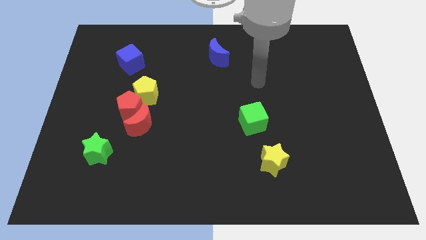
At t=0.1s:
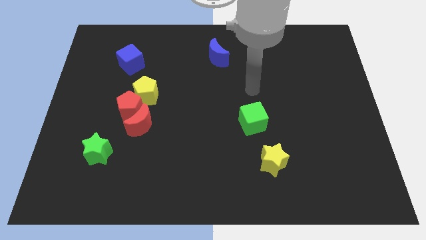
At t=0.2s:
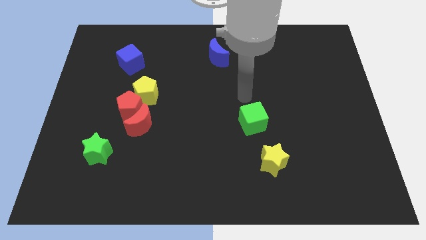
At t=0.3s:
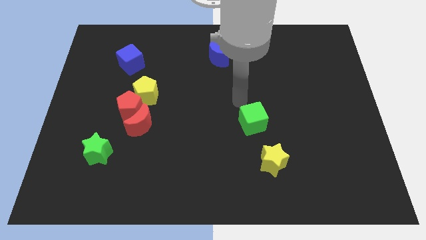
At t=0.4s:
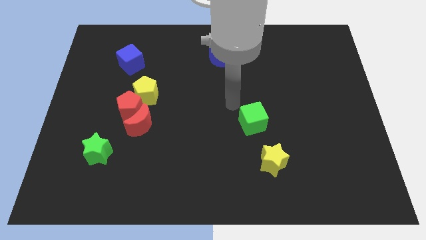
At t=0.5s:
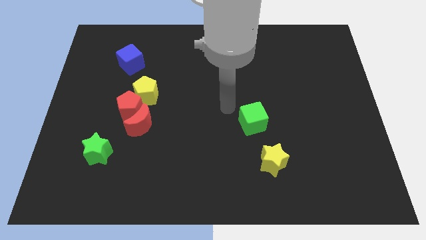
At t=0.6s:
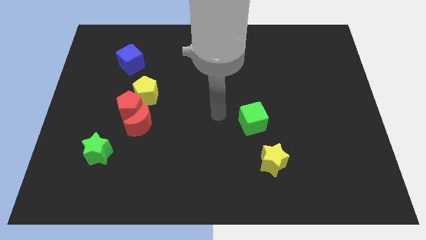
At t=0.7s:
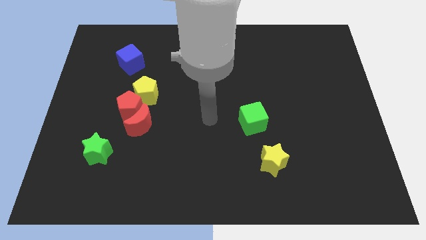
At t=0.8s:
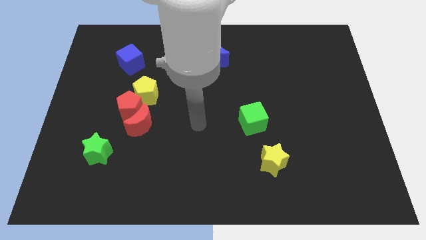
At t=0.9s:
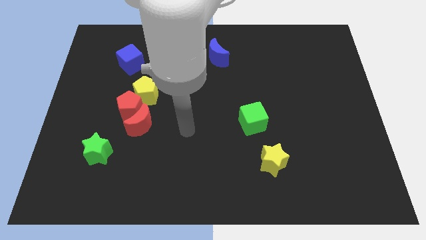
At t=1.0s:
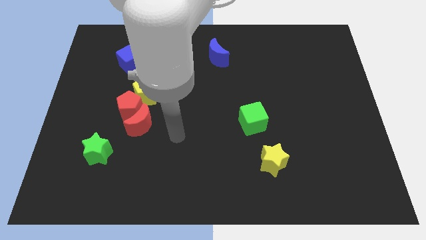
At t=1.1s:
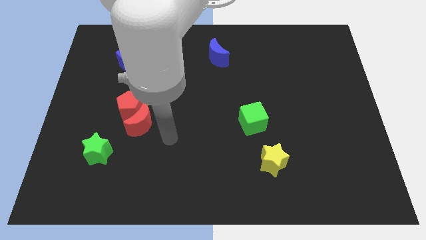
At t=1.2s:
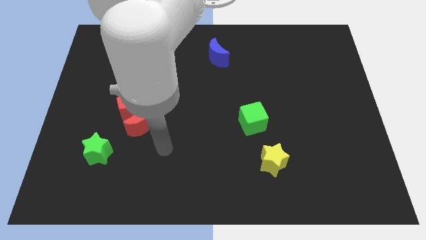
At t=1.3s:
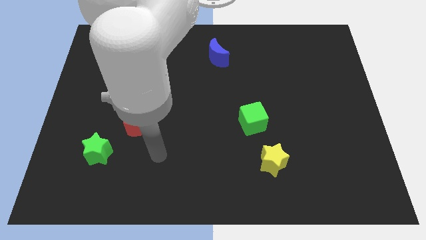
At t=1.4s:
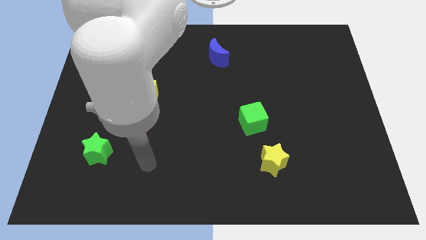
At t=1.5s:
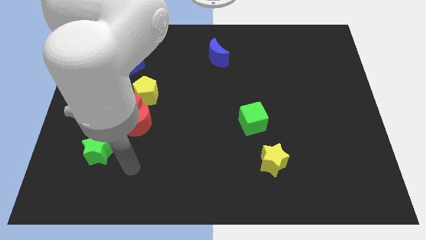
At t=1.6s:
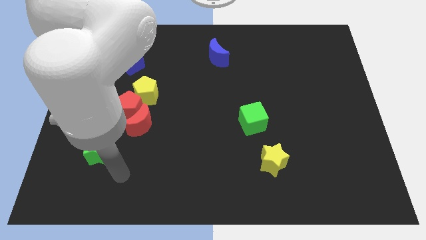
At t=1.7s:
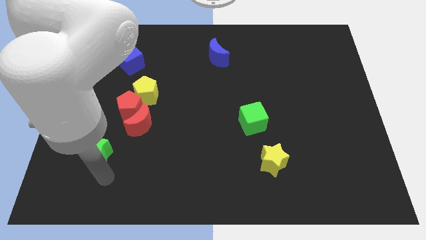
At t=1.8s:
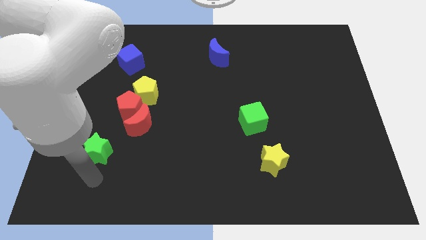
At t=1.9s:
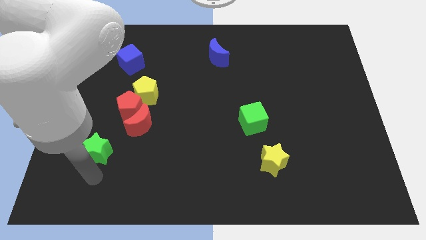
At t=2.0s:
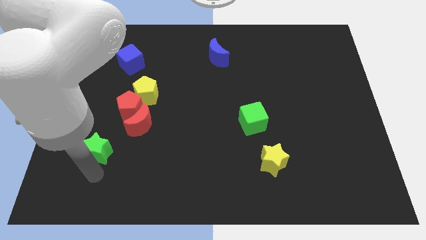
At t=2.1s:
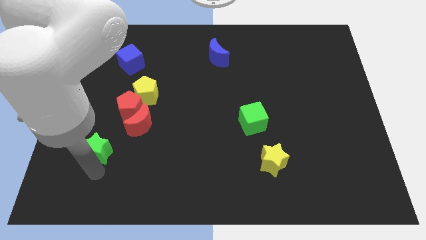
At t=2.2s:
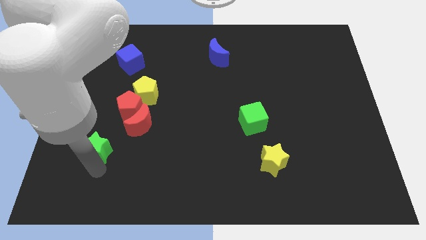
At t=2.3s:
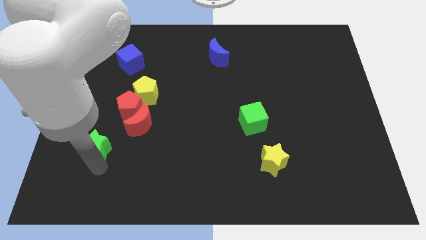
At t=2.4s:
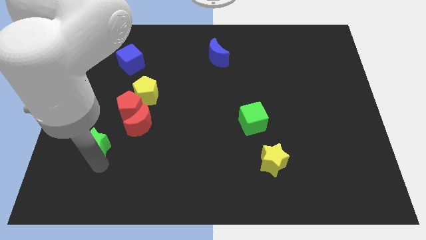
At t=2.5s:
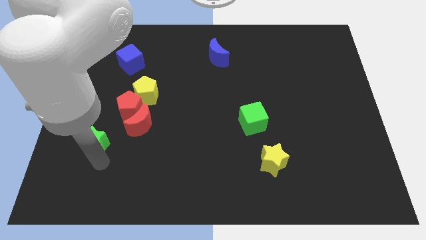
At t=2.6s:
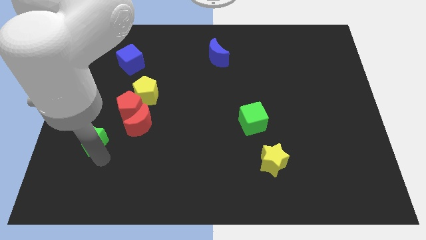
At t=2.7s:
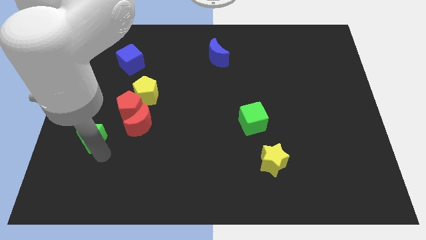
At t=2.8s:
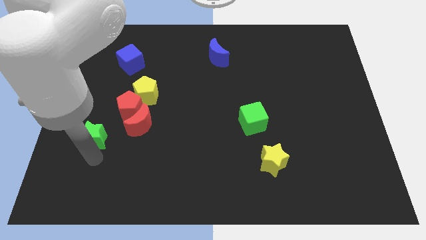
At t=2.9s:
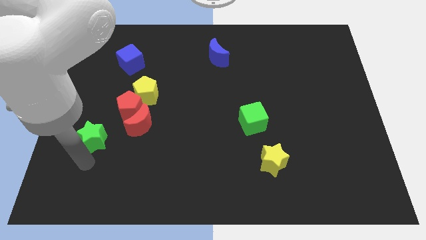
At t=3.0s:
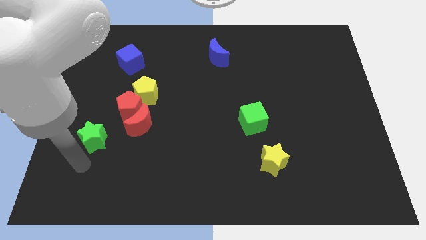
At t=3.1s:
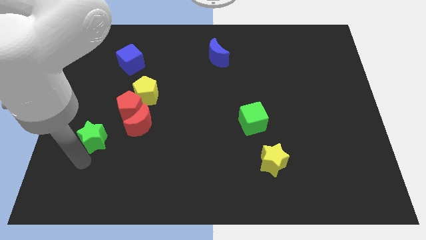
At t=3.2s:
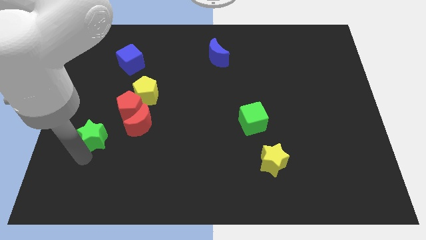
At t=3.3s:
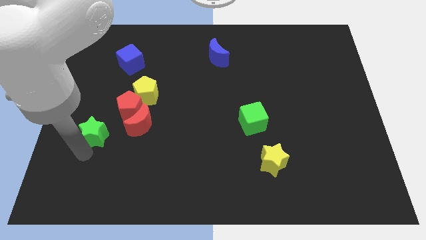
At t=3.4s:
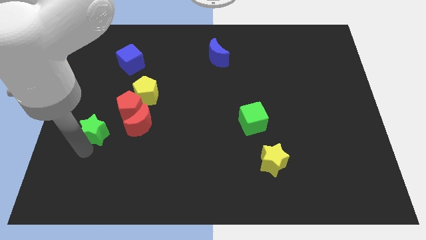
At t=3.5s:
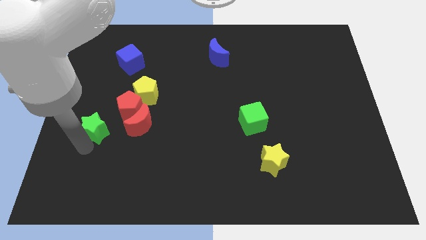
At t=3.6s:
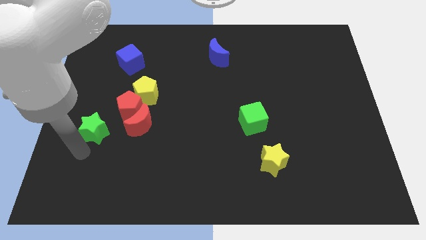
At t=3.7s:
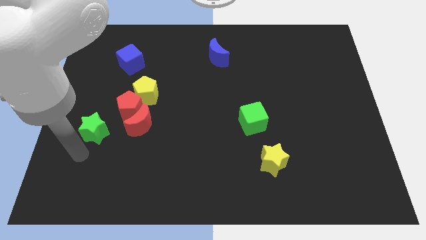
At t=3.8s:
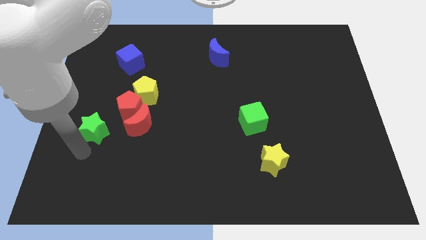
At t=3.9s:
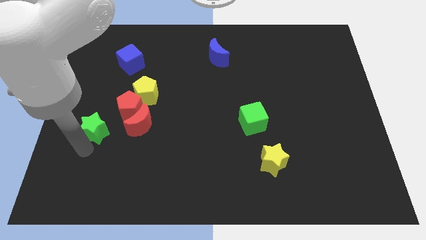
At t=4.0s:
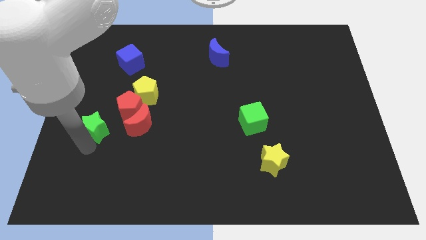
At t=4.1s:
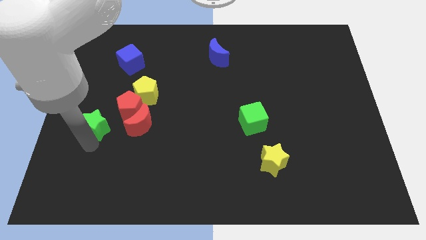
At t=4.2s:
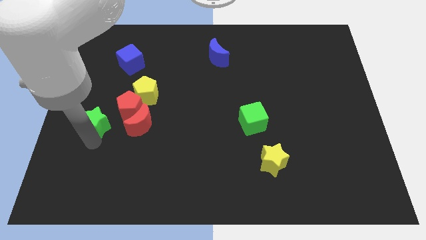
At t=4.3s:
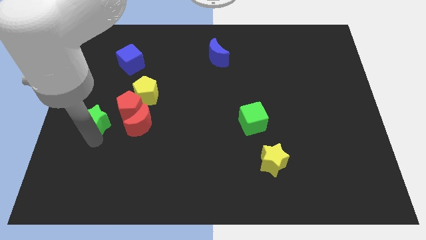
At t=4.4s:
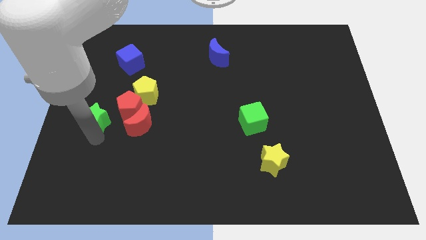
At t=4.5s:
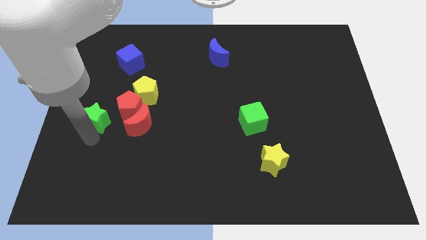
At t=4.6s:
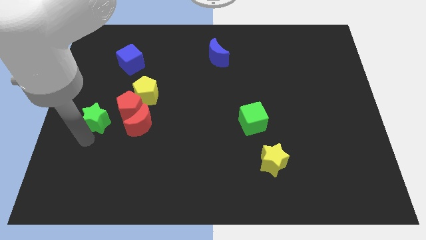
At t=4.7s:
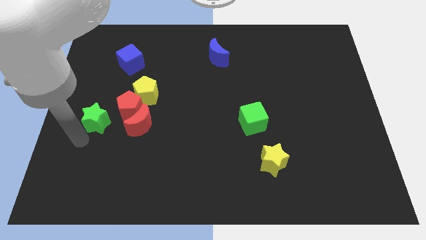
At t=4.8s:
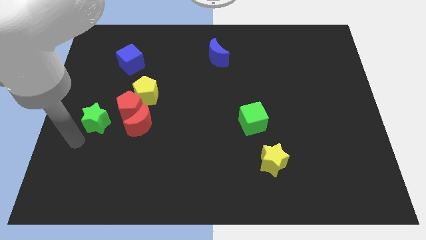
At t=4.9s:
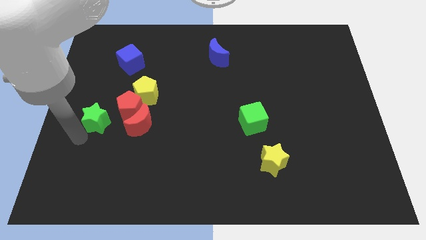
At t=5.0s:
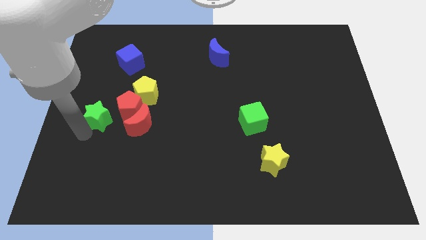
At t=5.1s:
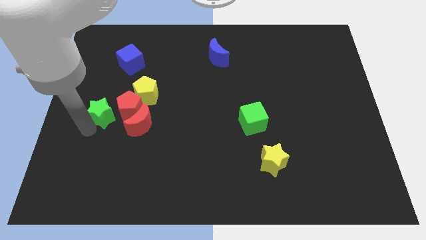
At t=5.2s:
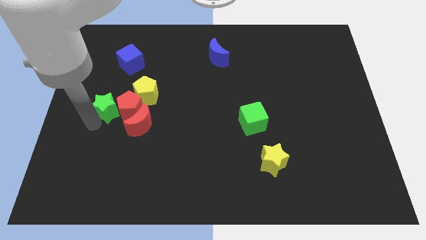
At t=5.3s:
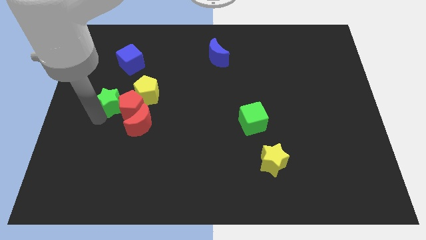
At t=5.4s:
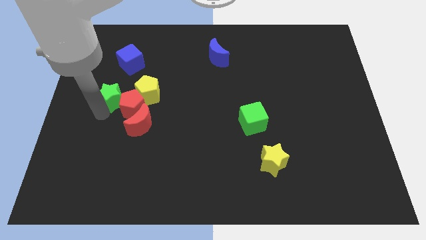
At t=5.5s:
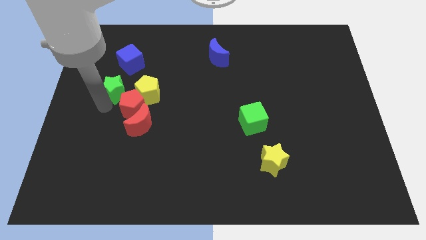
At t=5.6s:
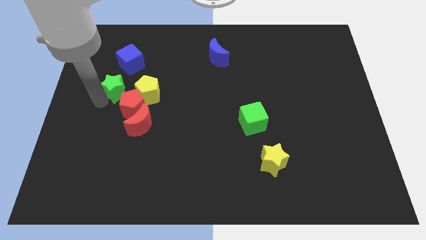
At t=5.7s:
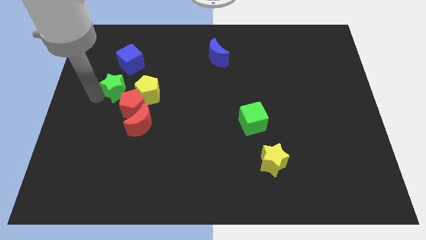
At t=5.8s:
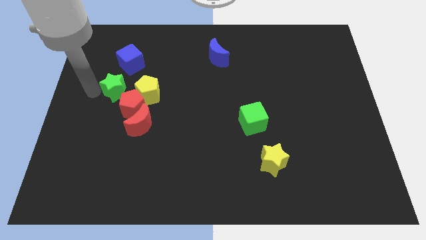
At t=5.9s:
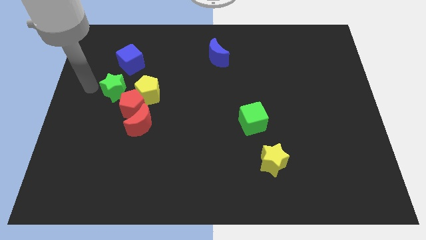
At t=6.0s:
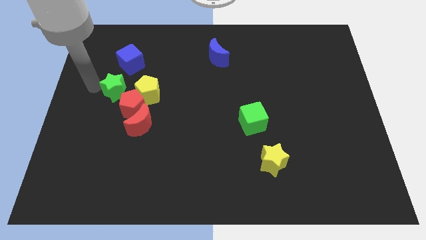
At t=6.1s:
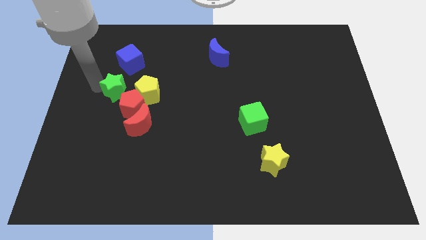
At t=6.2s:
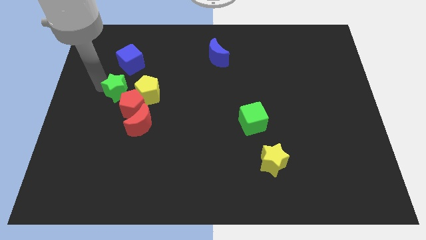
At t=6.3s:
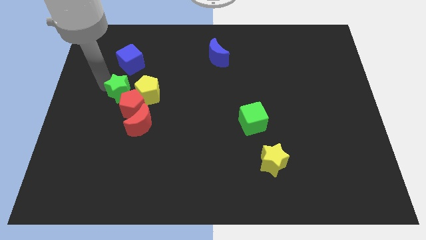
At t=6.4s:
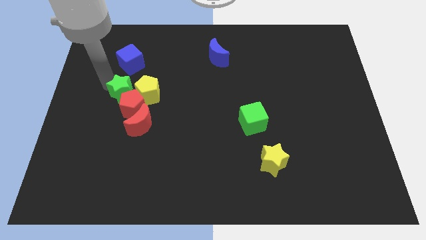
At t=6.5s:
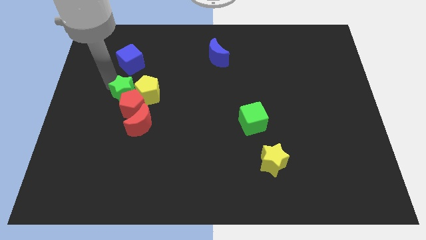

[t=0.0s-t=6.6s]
move the green star close to the yellow pentagon

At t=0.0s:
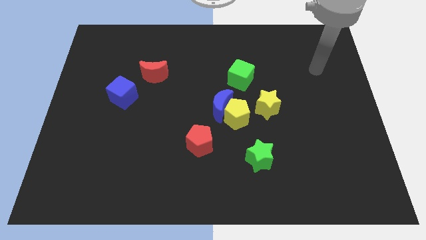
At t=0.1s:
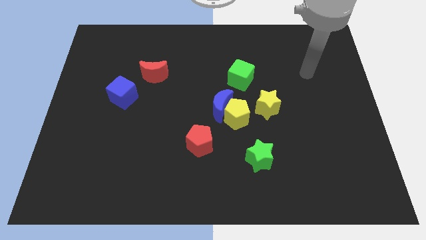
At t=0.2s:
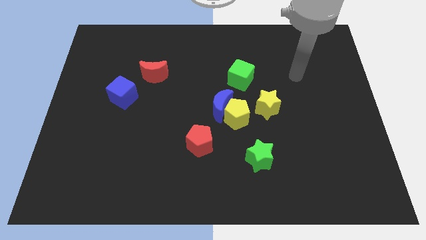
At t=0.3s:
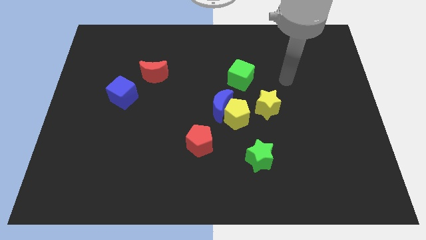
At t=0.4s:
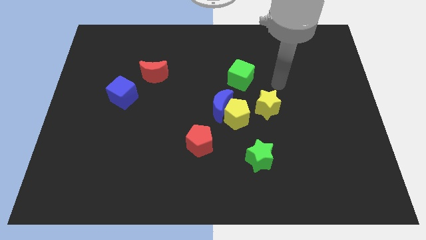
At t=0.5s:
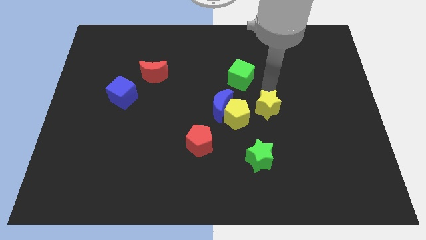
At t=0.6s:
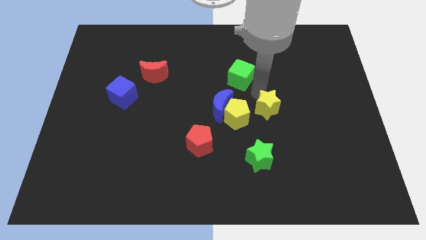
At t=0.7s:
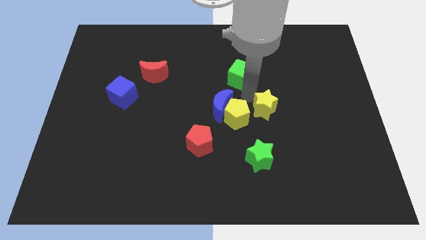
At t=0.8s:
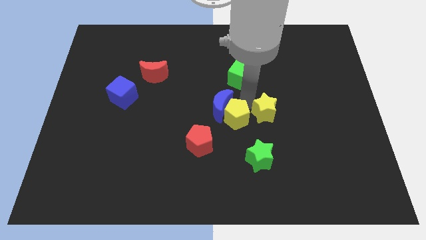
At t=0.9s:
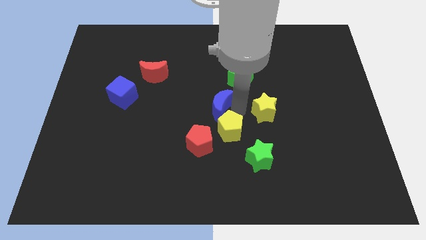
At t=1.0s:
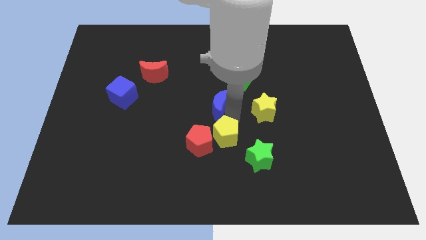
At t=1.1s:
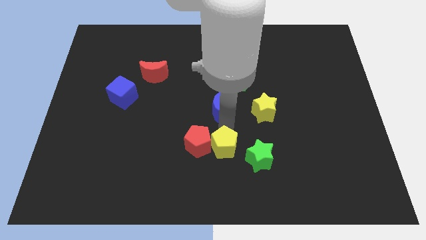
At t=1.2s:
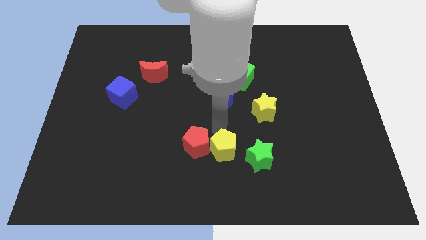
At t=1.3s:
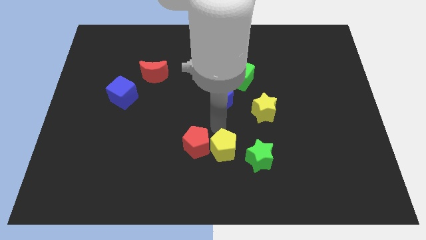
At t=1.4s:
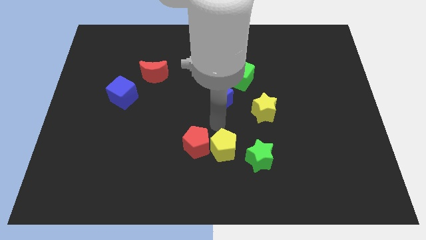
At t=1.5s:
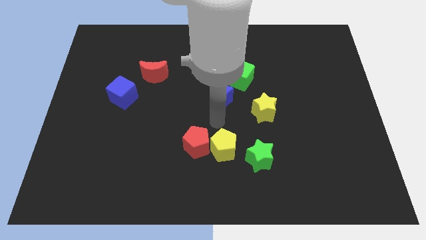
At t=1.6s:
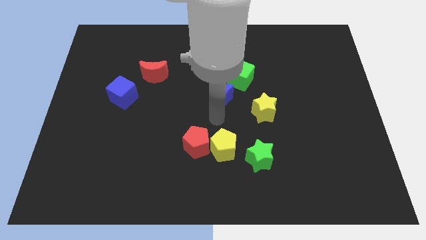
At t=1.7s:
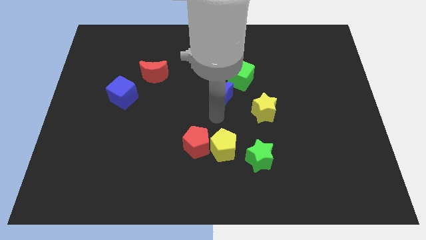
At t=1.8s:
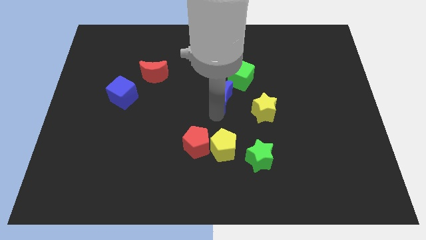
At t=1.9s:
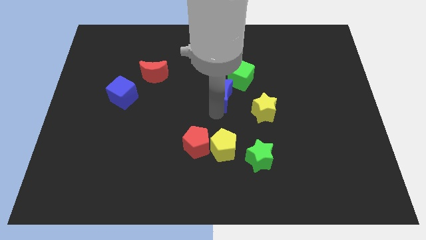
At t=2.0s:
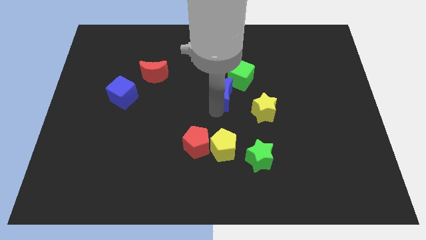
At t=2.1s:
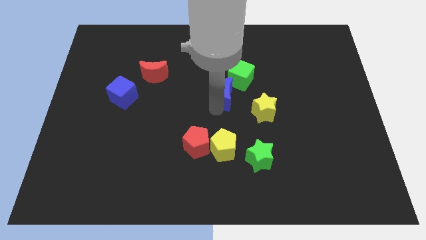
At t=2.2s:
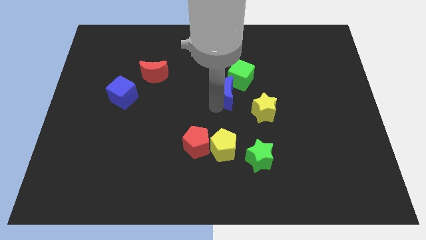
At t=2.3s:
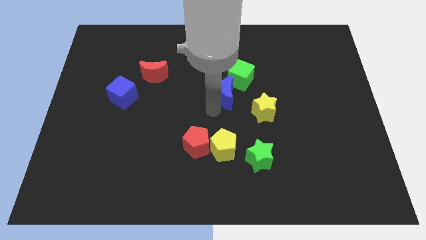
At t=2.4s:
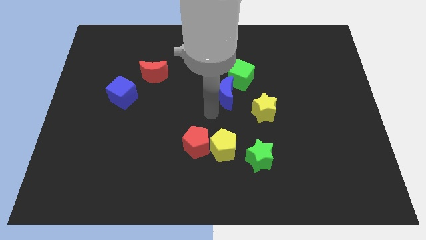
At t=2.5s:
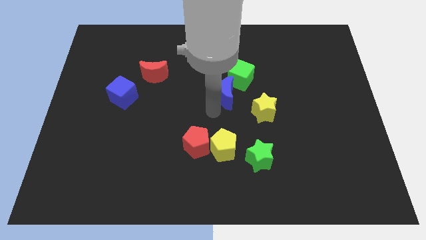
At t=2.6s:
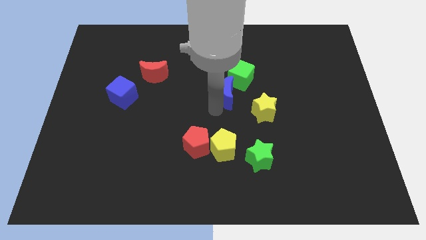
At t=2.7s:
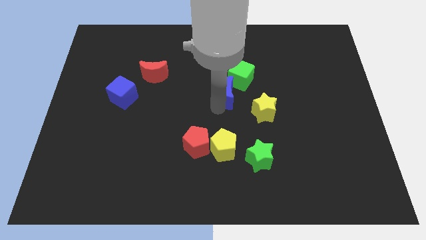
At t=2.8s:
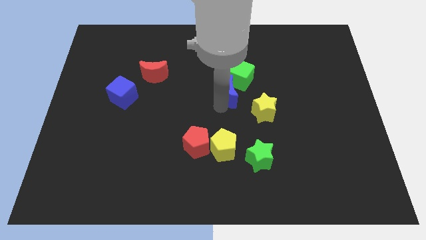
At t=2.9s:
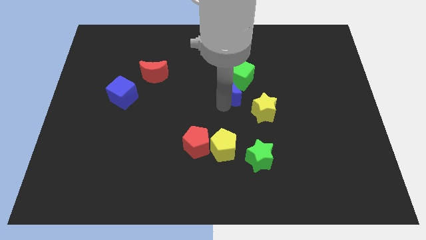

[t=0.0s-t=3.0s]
slide the blue moon next to the green cube
